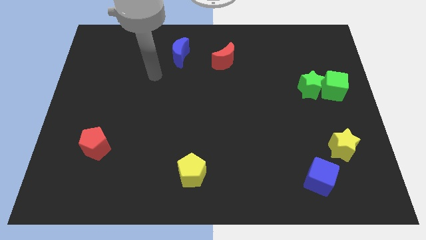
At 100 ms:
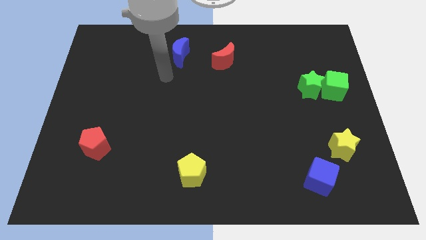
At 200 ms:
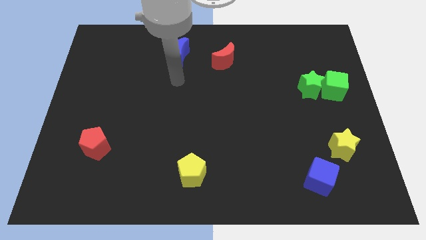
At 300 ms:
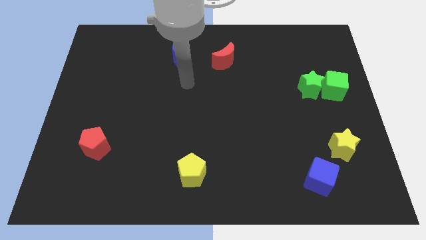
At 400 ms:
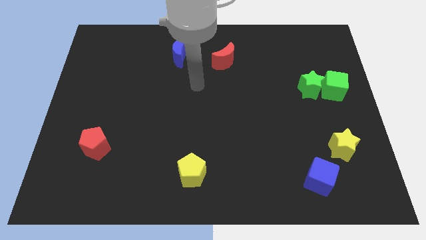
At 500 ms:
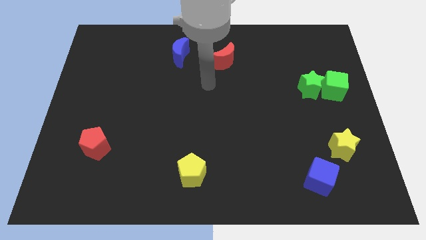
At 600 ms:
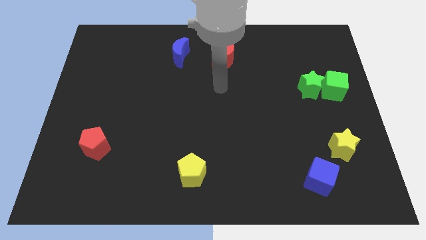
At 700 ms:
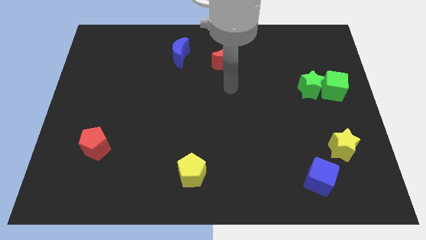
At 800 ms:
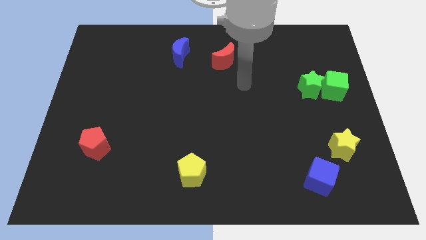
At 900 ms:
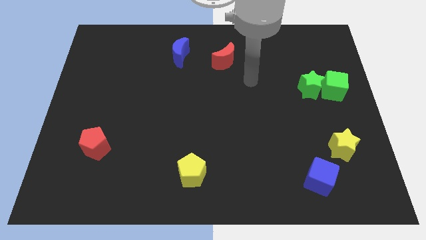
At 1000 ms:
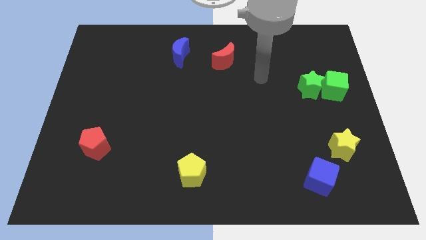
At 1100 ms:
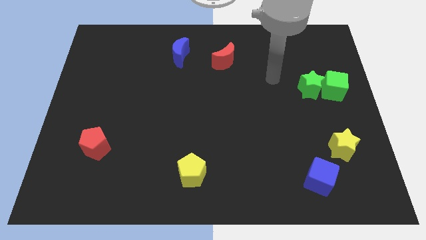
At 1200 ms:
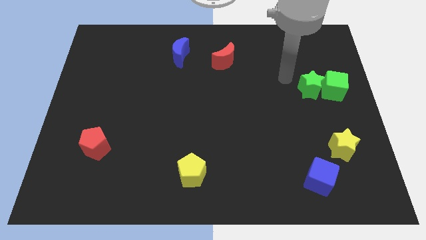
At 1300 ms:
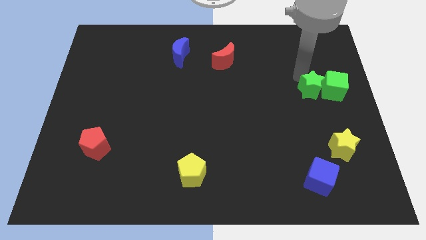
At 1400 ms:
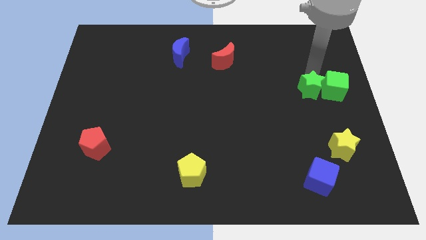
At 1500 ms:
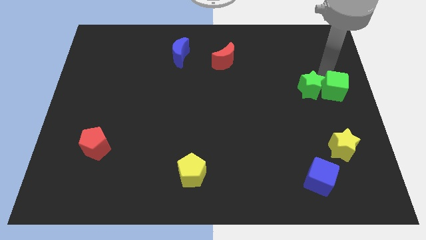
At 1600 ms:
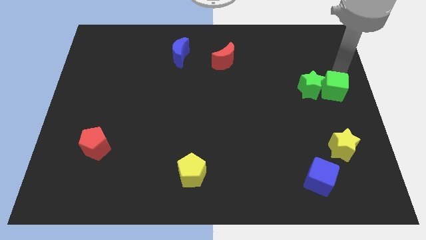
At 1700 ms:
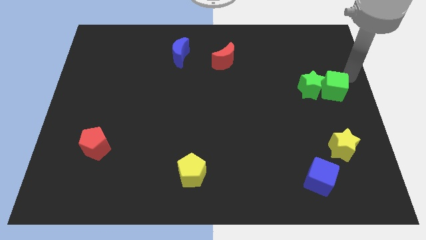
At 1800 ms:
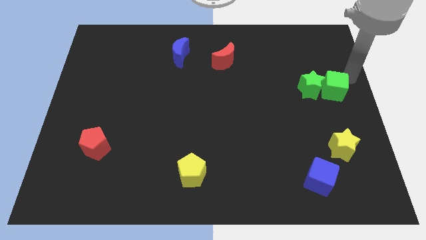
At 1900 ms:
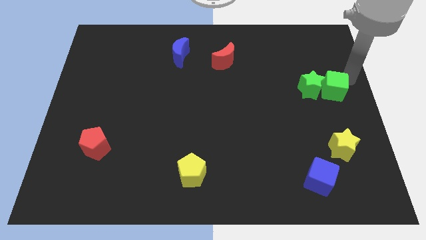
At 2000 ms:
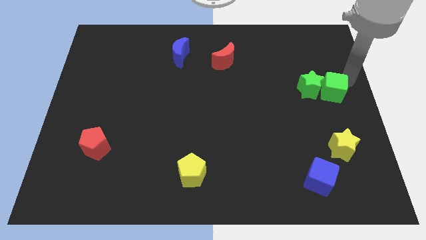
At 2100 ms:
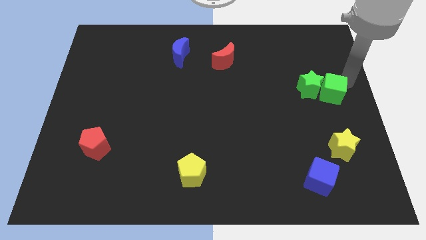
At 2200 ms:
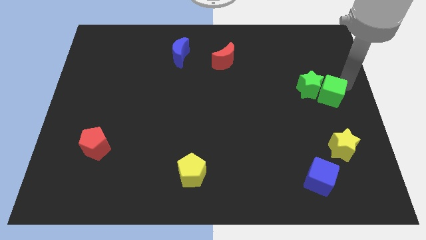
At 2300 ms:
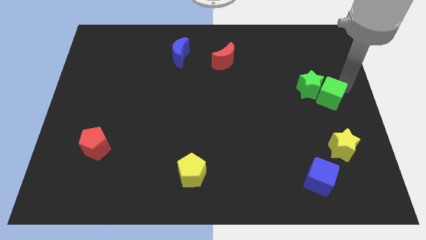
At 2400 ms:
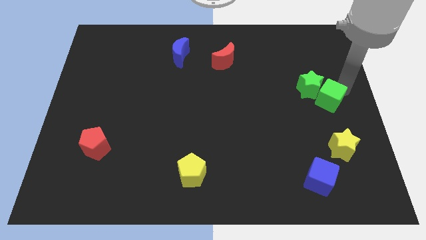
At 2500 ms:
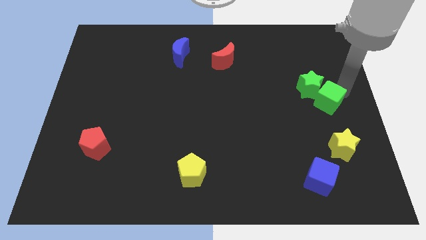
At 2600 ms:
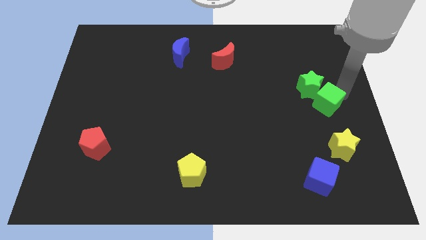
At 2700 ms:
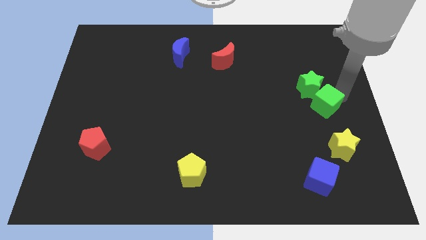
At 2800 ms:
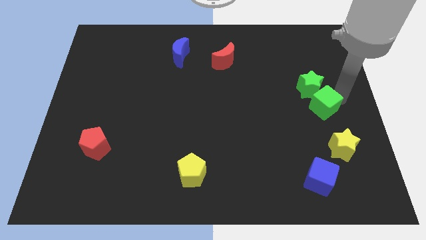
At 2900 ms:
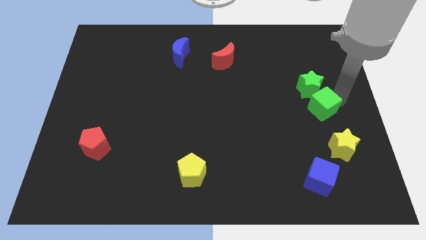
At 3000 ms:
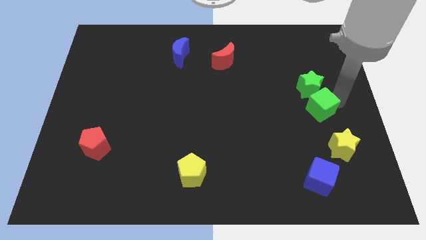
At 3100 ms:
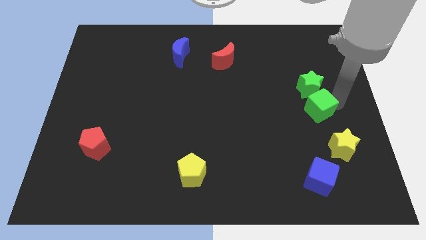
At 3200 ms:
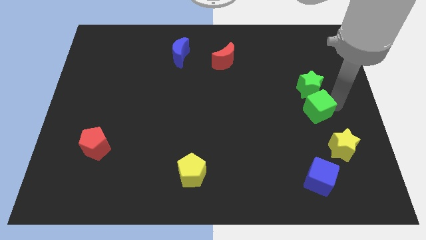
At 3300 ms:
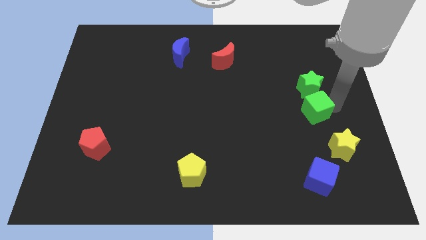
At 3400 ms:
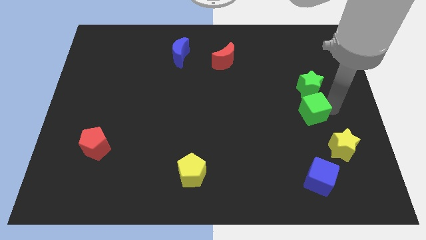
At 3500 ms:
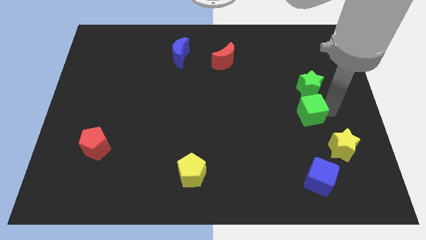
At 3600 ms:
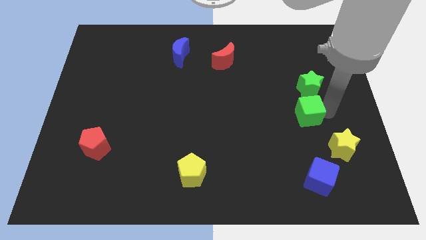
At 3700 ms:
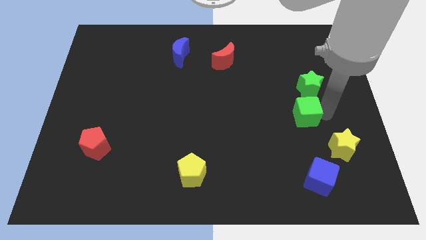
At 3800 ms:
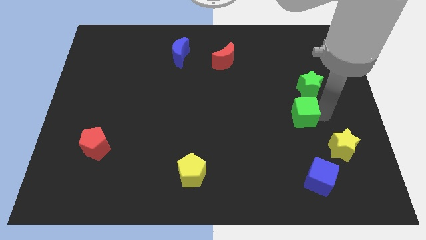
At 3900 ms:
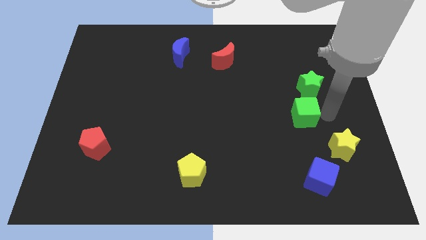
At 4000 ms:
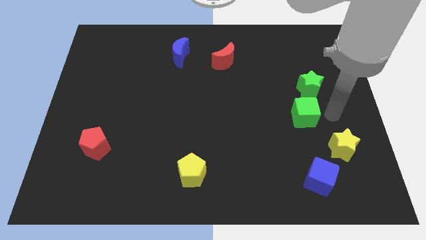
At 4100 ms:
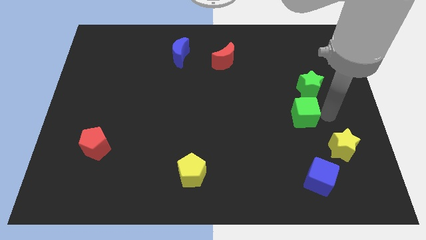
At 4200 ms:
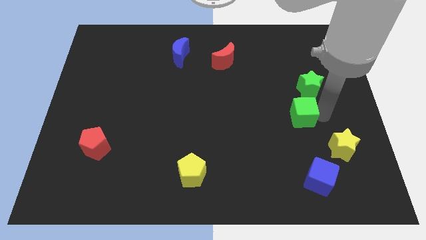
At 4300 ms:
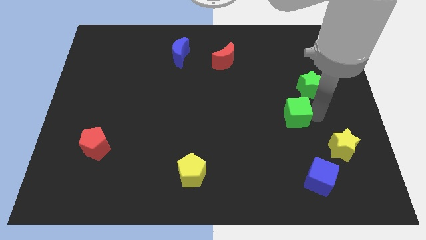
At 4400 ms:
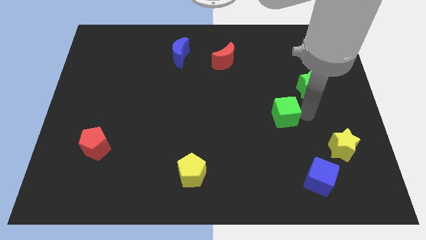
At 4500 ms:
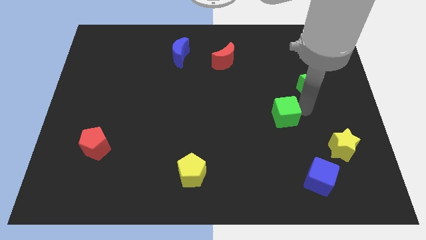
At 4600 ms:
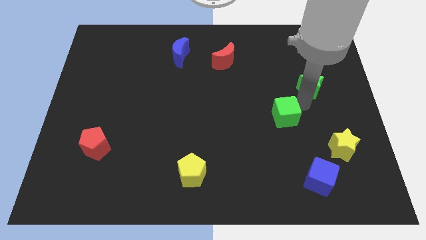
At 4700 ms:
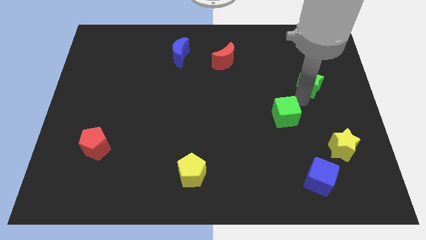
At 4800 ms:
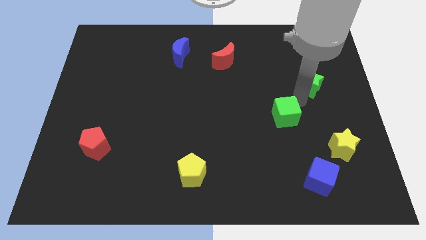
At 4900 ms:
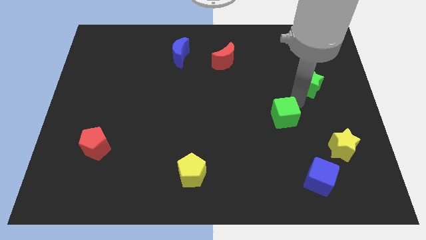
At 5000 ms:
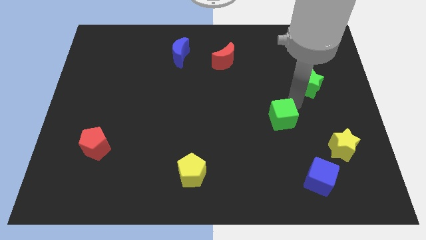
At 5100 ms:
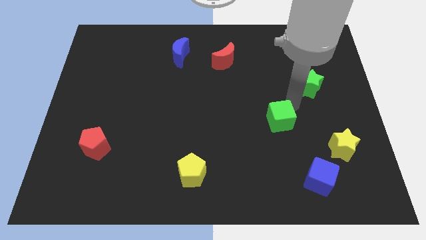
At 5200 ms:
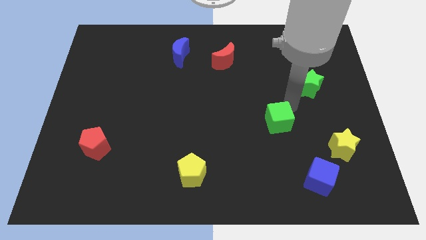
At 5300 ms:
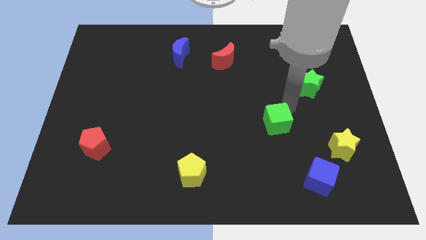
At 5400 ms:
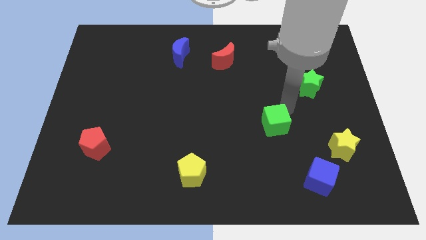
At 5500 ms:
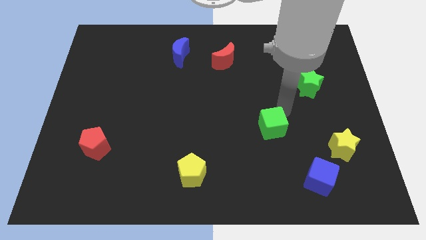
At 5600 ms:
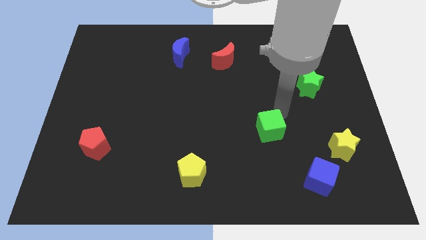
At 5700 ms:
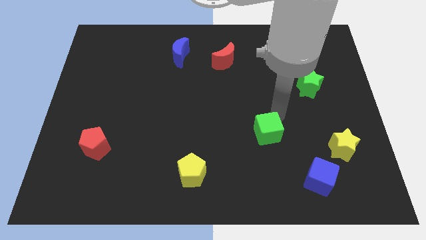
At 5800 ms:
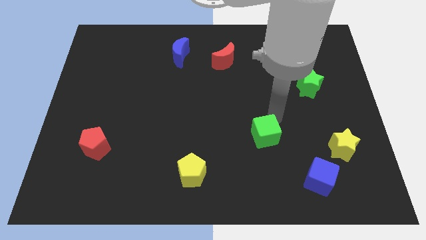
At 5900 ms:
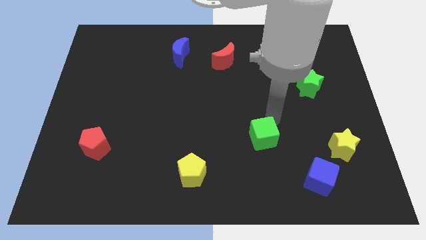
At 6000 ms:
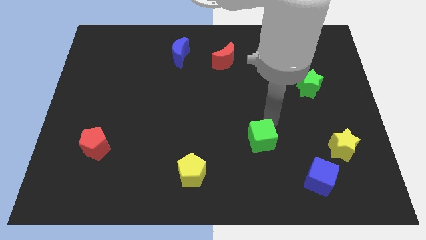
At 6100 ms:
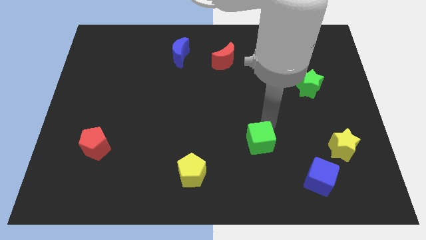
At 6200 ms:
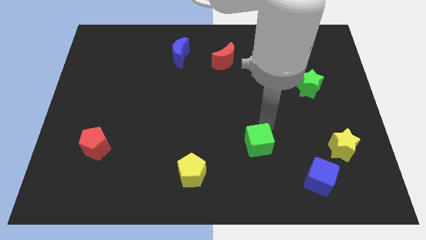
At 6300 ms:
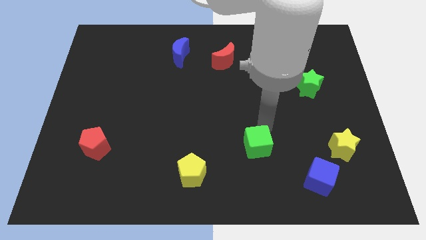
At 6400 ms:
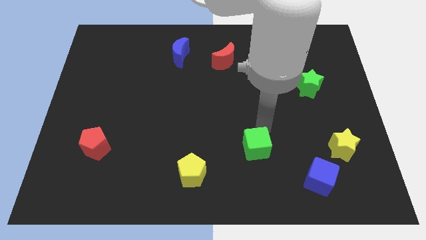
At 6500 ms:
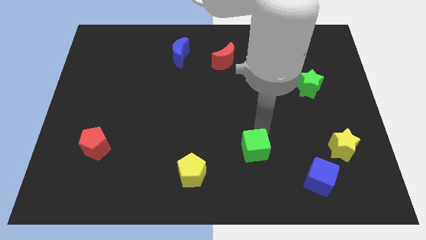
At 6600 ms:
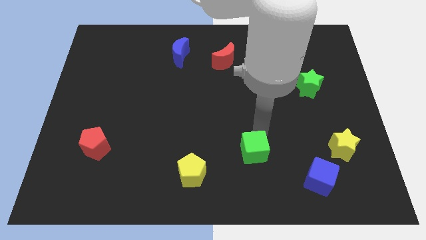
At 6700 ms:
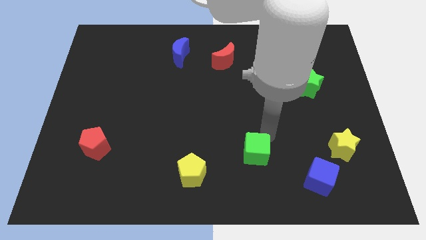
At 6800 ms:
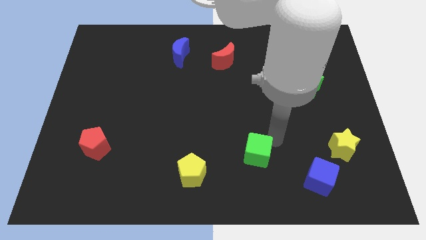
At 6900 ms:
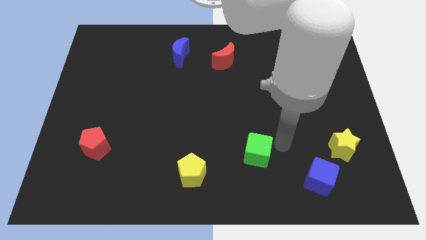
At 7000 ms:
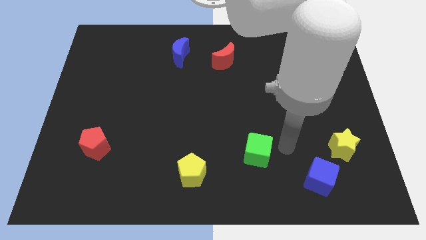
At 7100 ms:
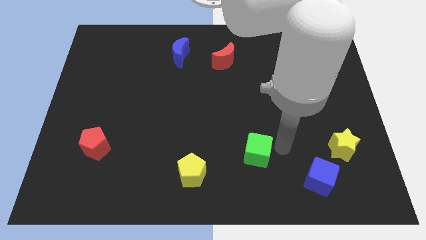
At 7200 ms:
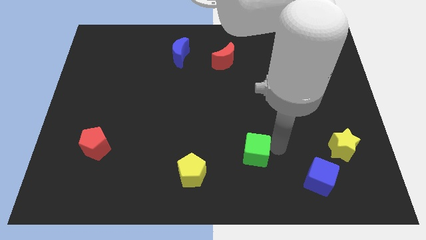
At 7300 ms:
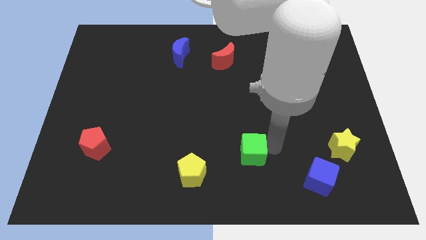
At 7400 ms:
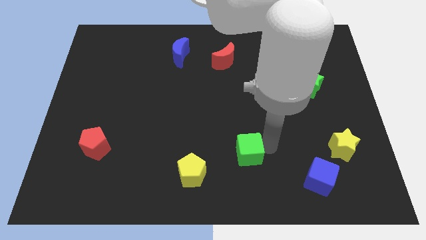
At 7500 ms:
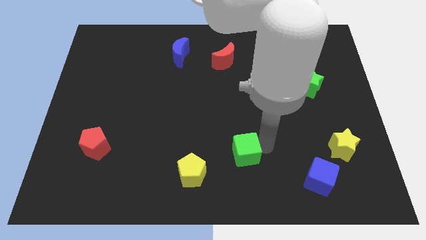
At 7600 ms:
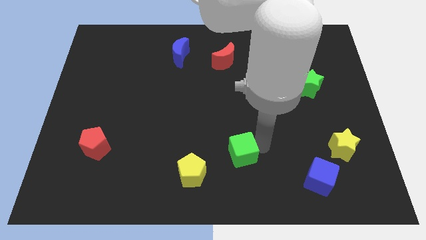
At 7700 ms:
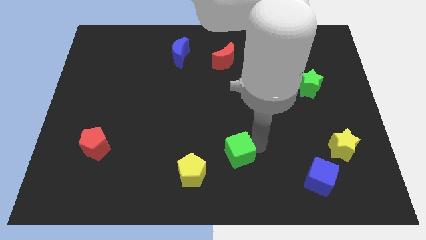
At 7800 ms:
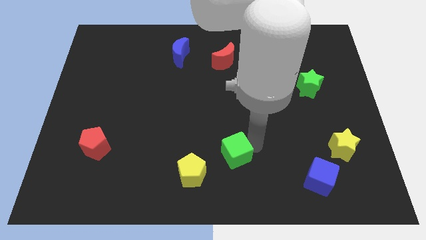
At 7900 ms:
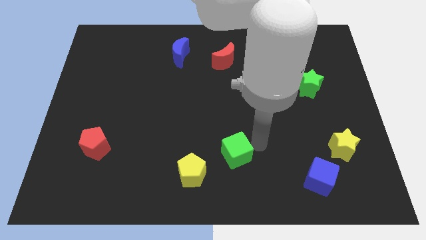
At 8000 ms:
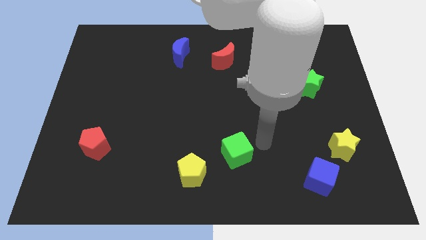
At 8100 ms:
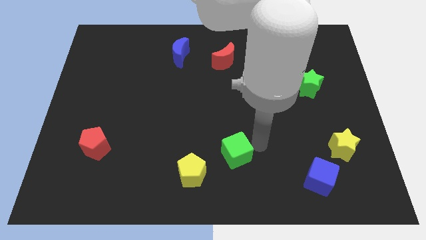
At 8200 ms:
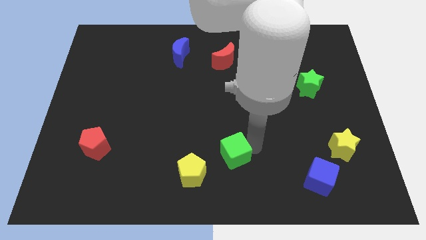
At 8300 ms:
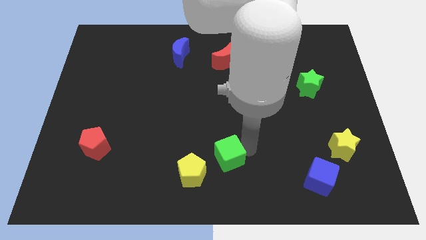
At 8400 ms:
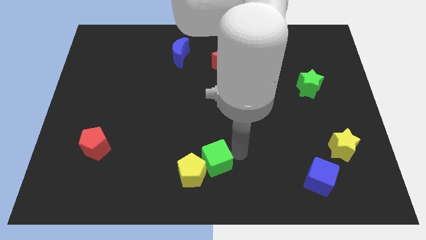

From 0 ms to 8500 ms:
move the green cube towards the yellow pentagon
